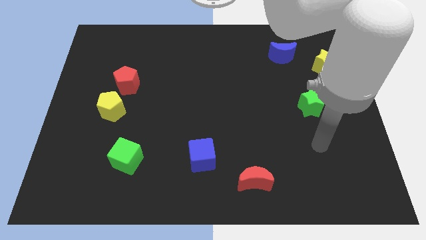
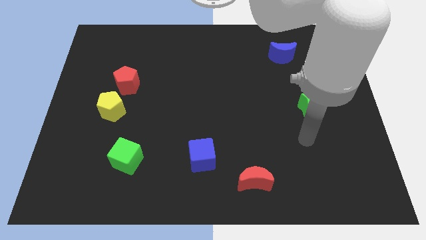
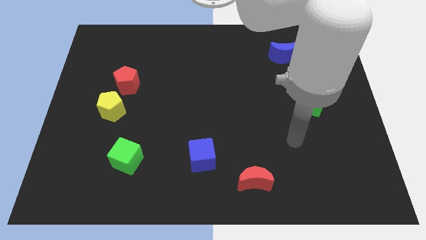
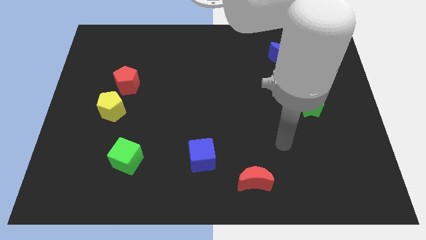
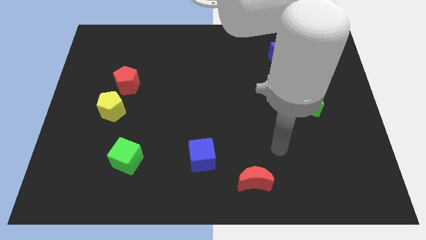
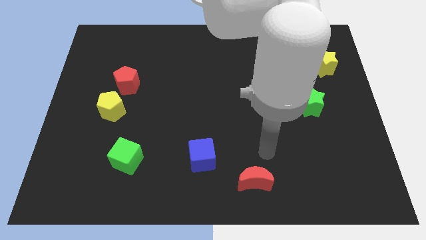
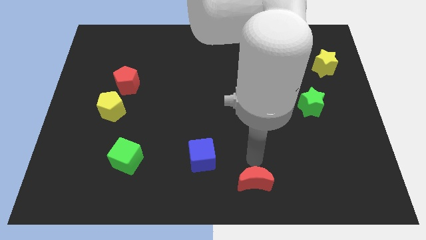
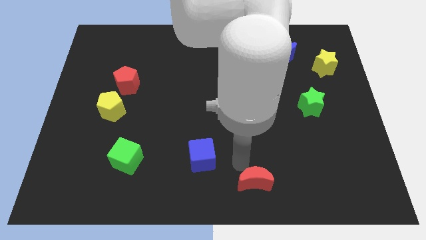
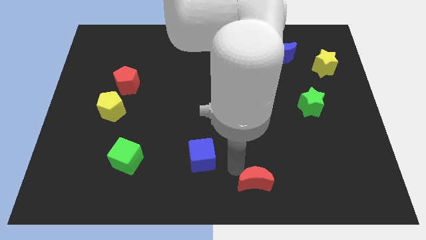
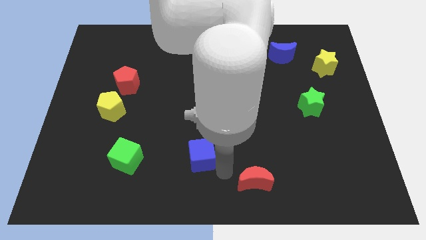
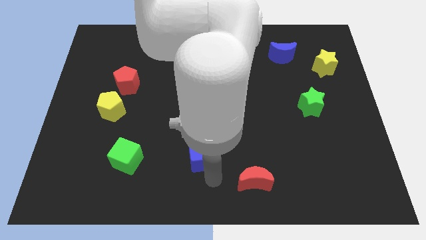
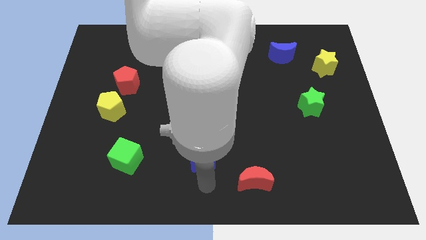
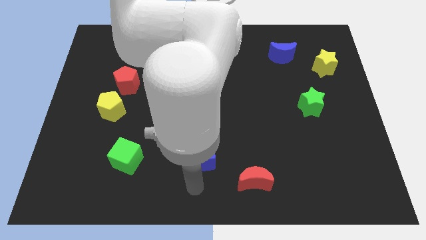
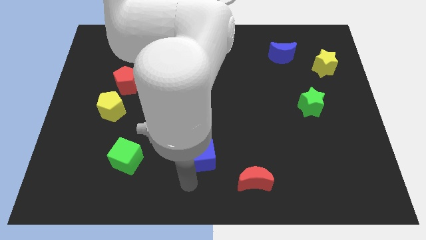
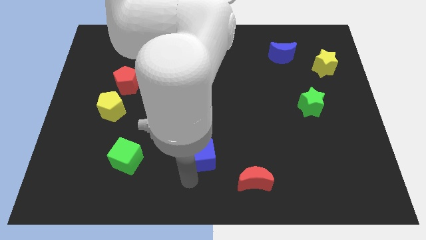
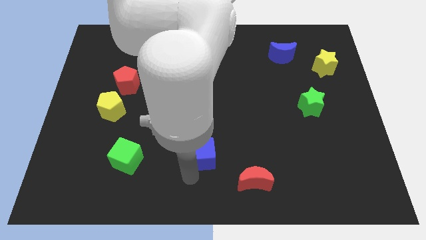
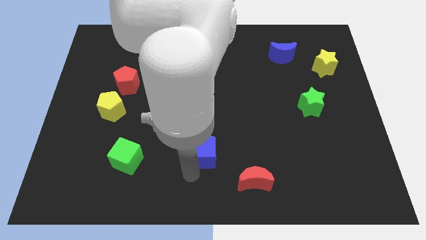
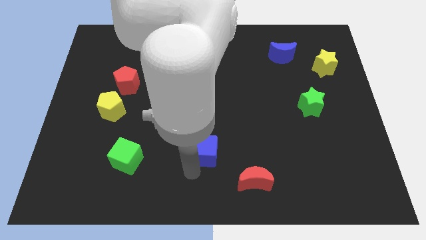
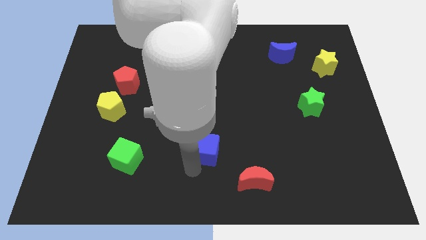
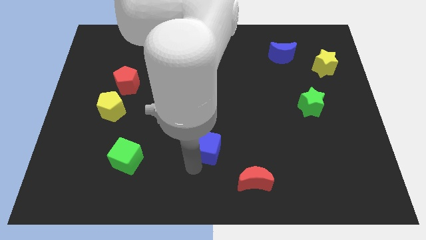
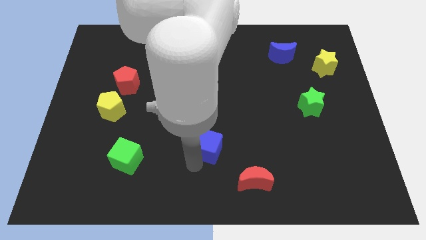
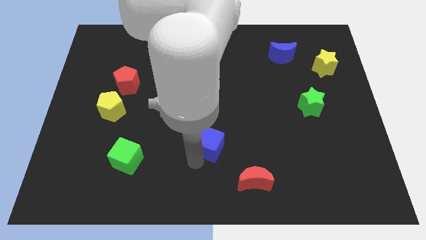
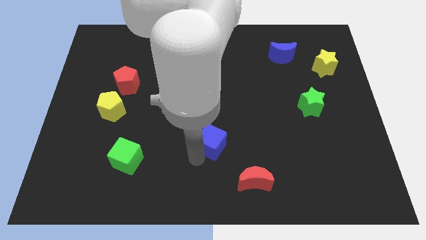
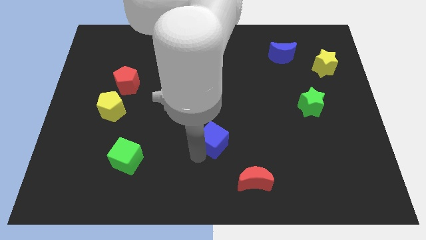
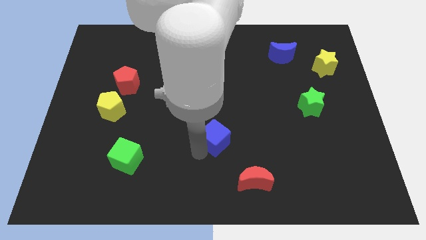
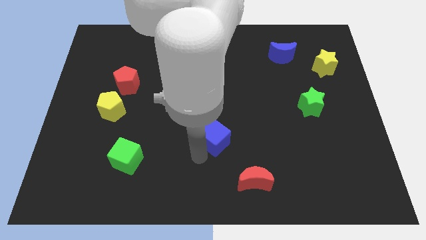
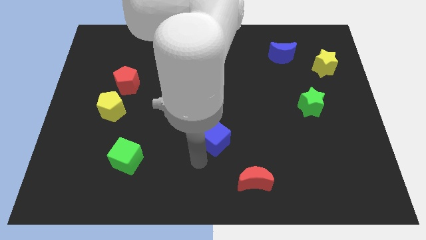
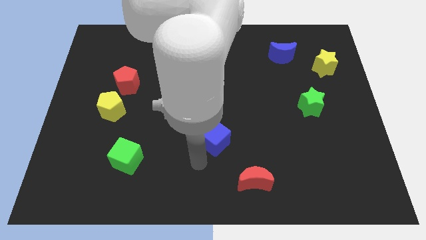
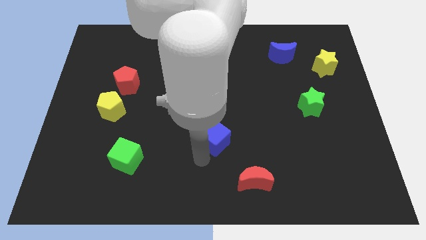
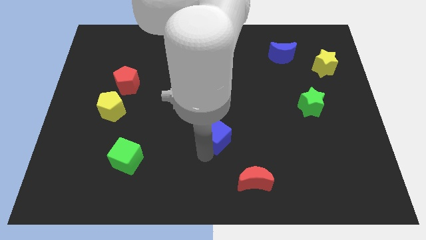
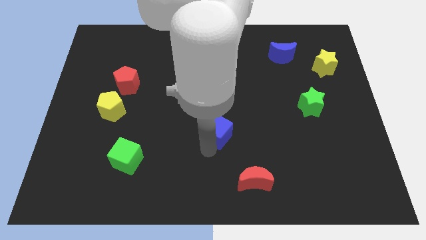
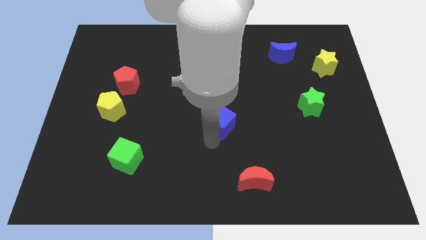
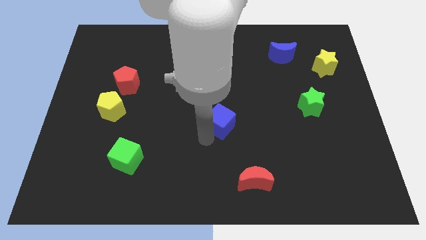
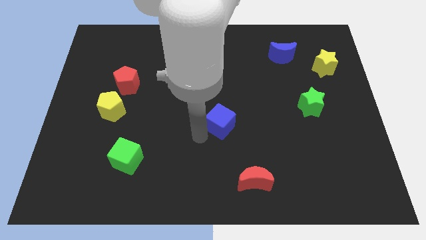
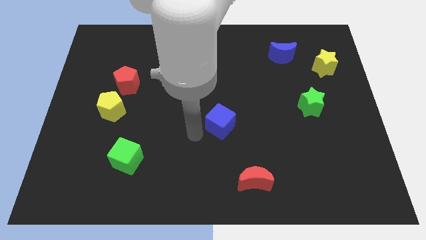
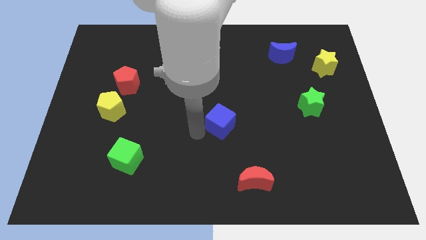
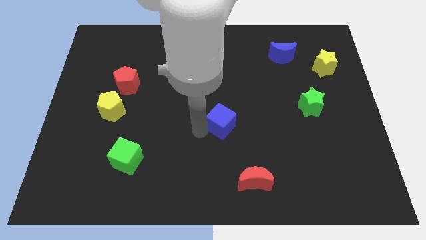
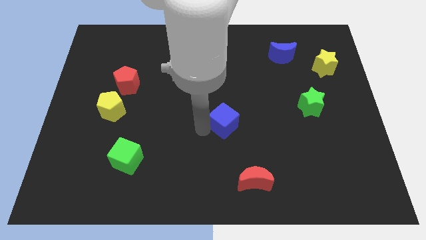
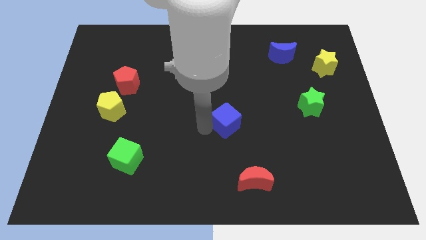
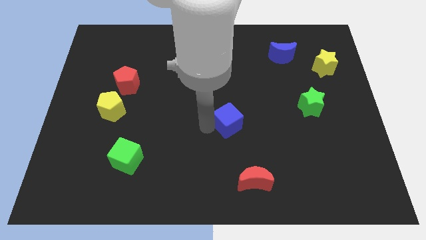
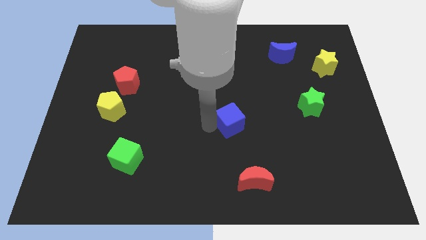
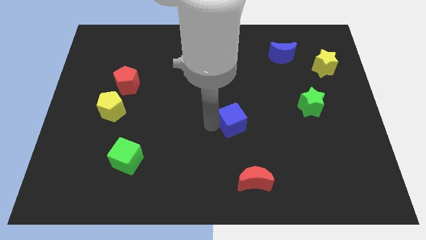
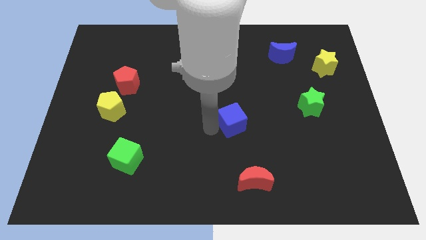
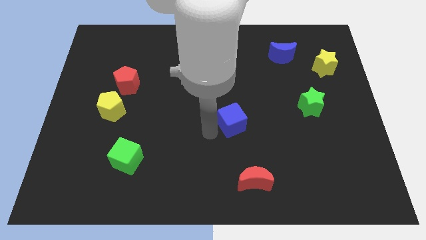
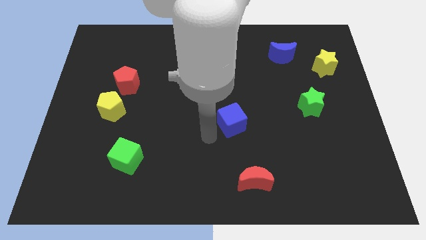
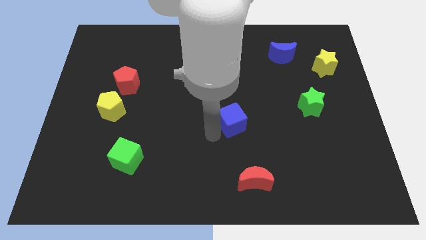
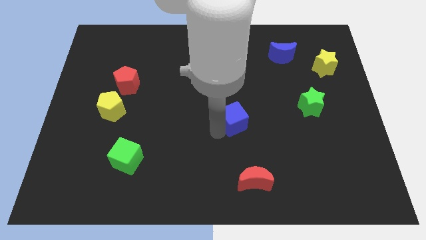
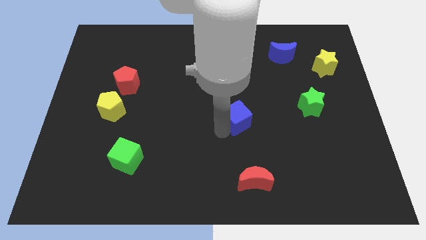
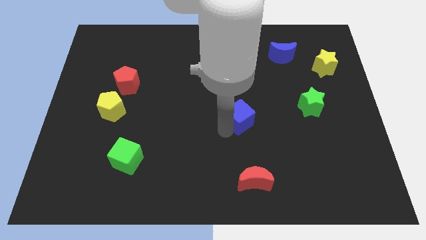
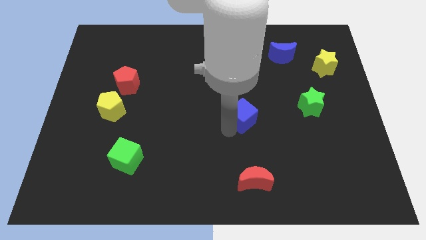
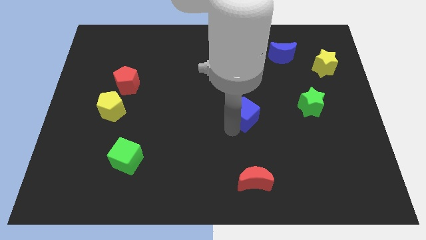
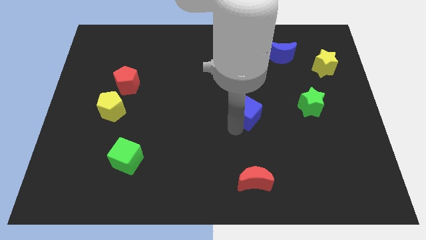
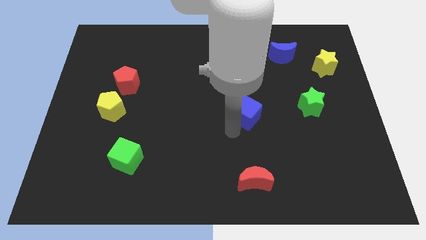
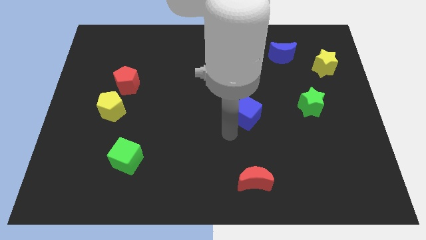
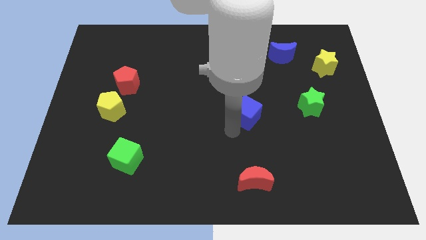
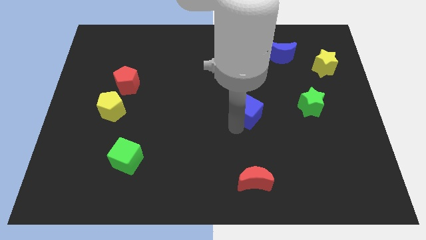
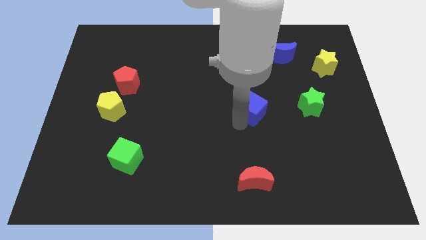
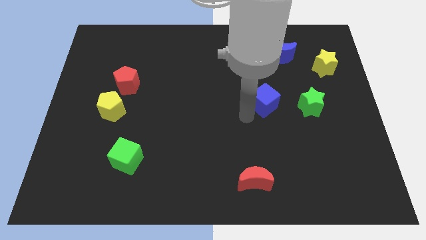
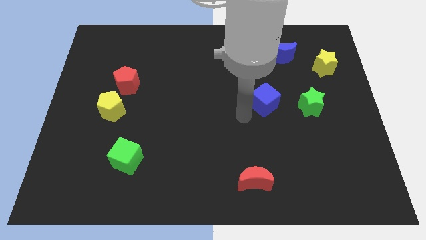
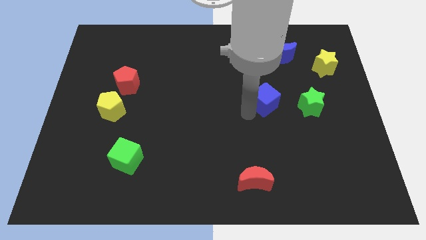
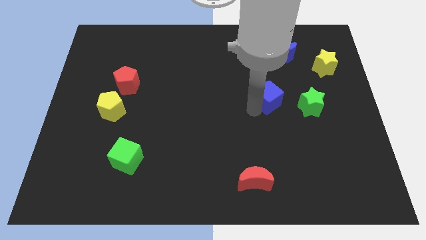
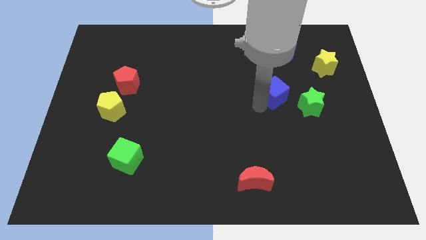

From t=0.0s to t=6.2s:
put the blue cube to the top left of the green star

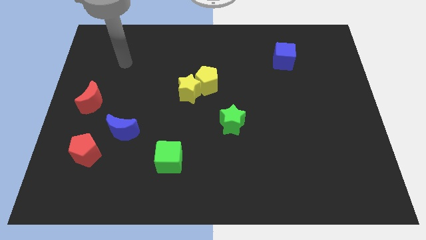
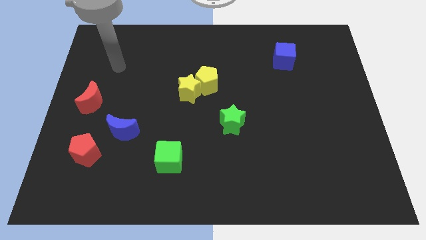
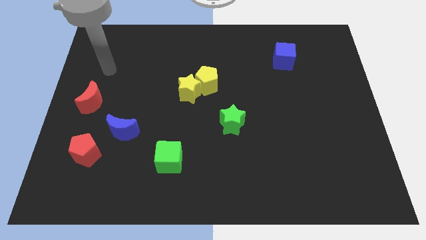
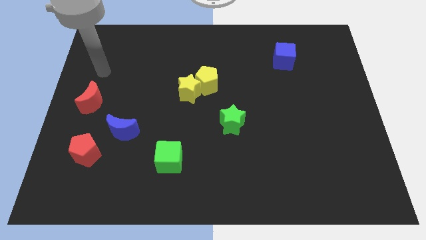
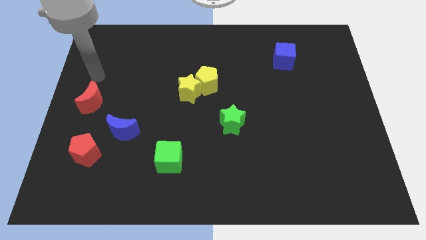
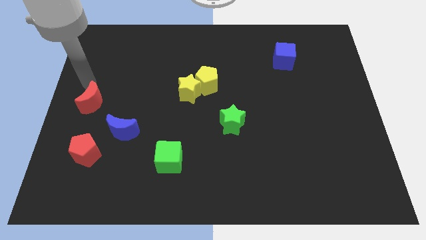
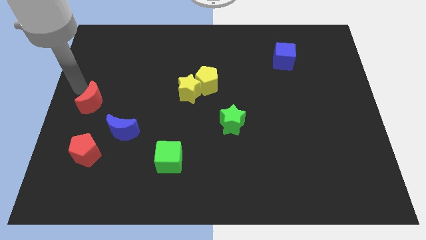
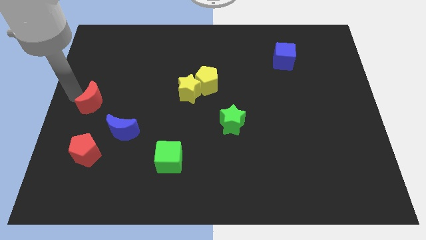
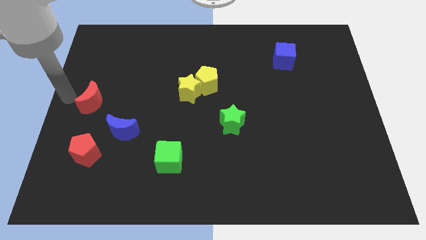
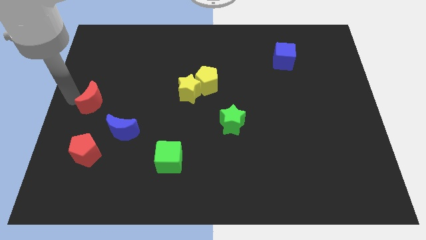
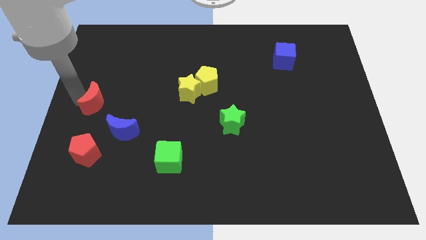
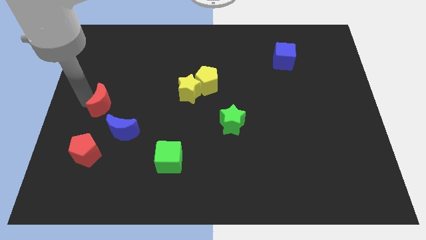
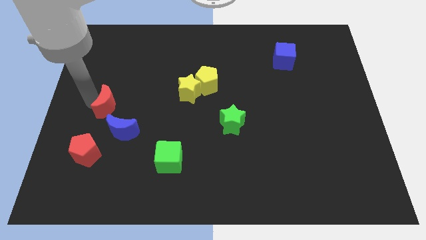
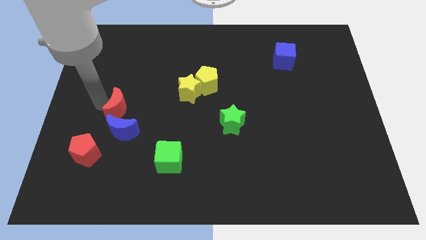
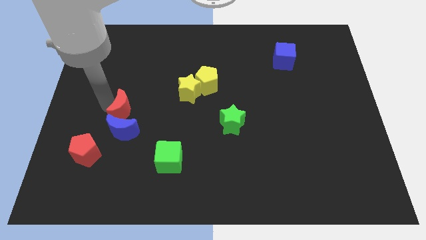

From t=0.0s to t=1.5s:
move the red moon to the top right side of the blue moon
